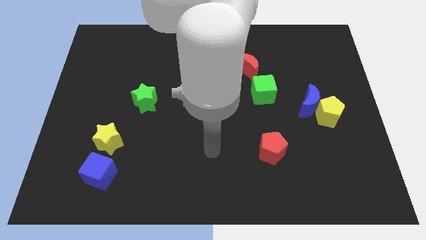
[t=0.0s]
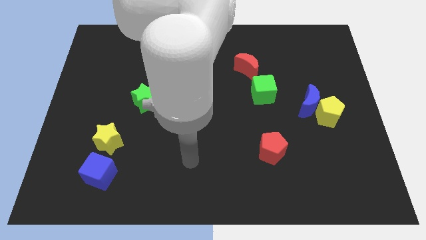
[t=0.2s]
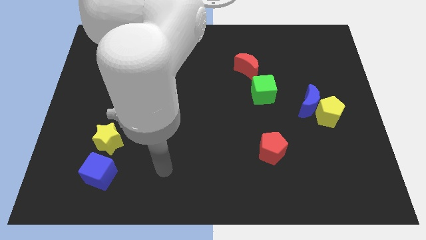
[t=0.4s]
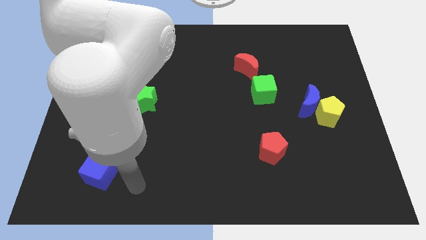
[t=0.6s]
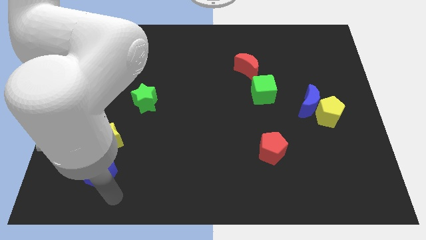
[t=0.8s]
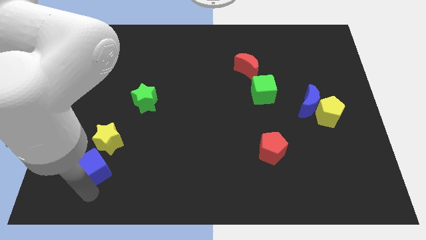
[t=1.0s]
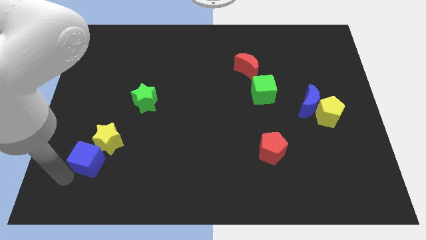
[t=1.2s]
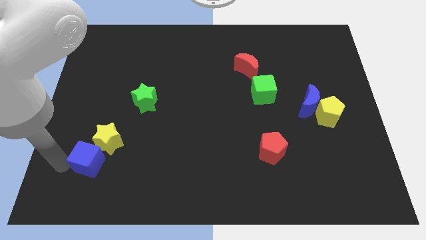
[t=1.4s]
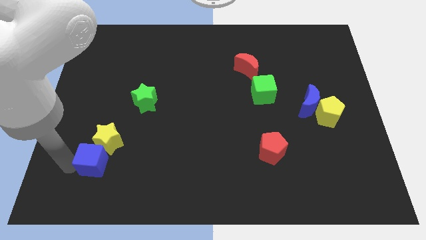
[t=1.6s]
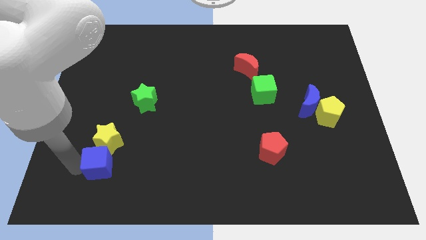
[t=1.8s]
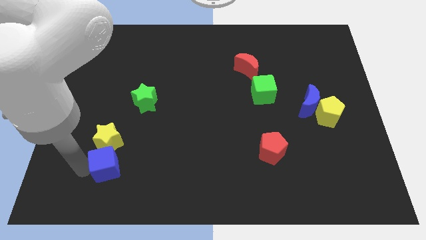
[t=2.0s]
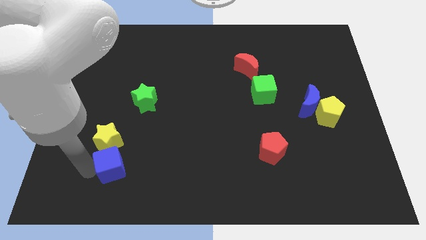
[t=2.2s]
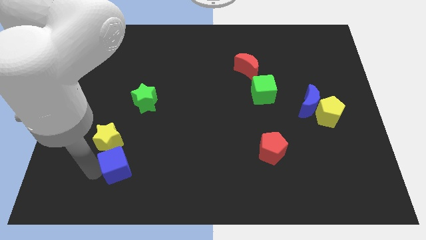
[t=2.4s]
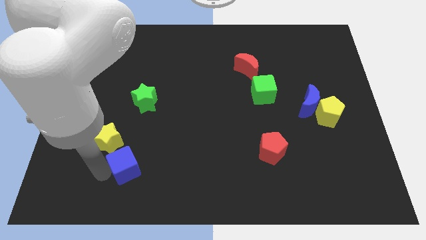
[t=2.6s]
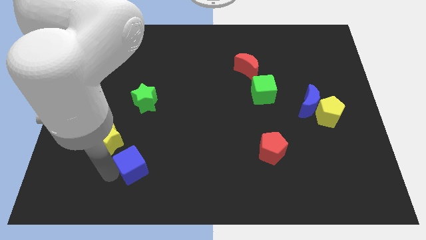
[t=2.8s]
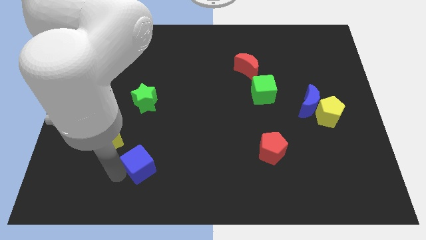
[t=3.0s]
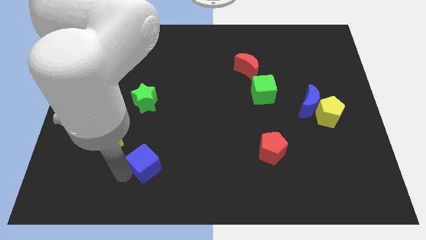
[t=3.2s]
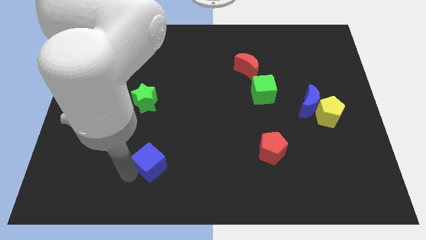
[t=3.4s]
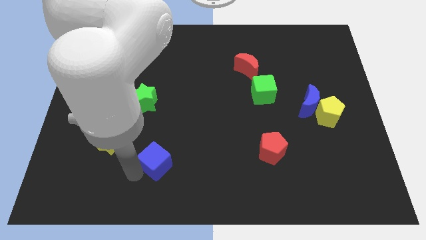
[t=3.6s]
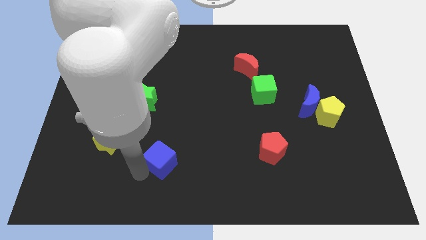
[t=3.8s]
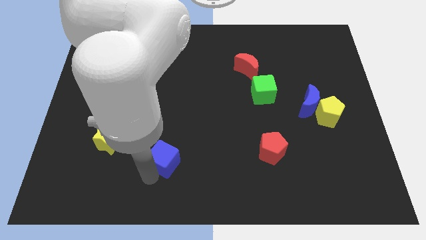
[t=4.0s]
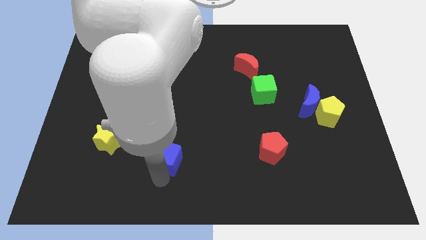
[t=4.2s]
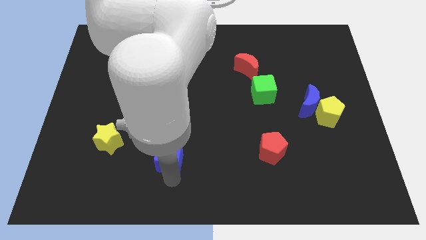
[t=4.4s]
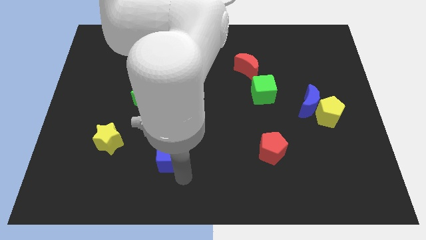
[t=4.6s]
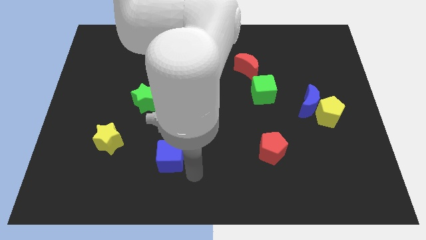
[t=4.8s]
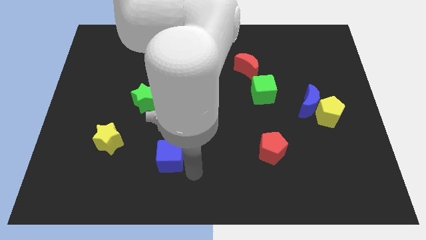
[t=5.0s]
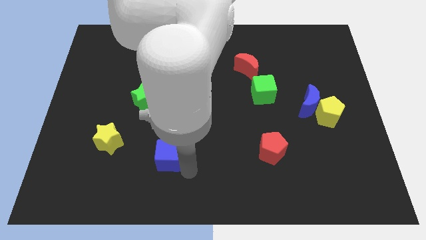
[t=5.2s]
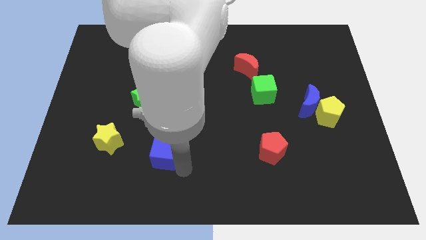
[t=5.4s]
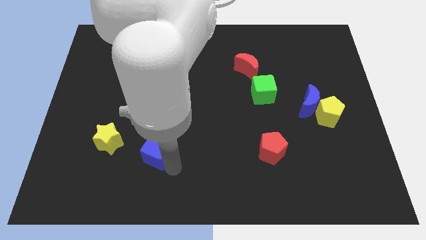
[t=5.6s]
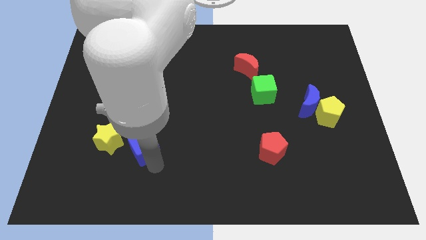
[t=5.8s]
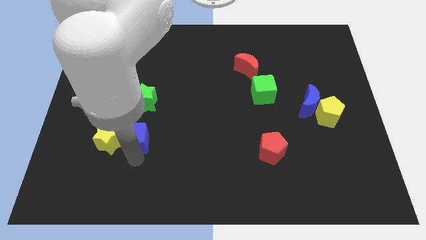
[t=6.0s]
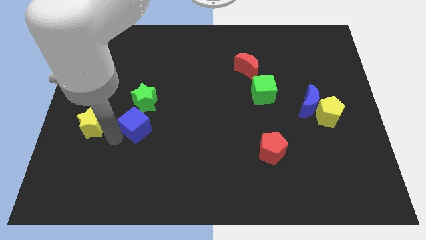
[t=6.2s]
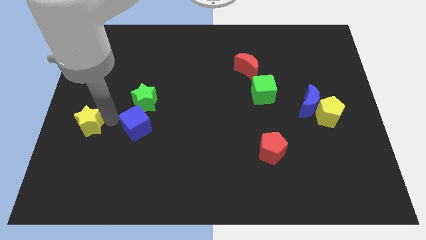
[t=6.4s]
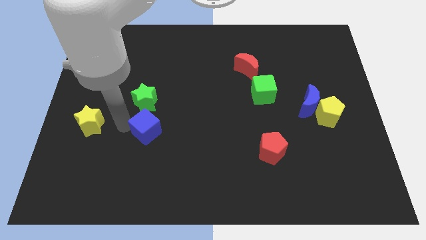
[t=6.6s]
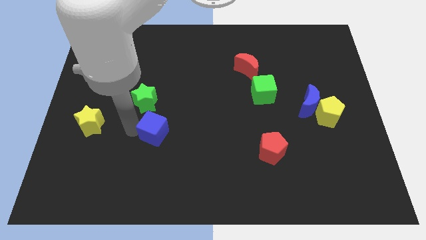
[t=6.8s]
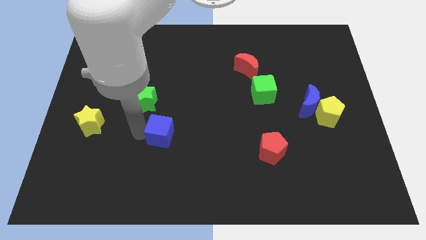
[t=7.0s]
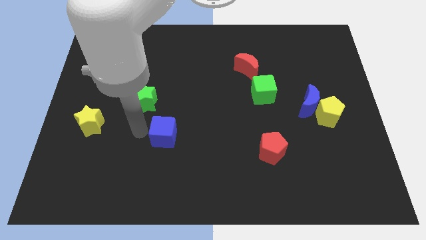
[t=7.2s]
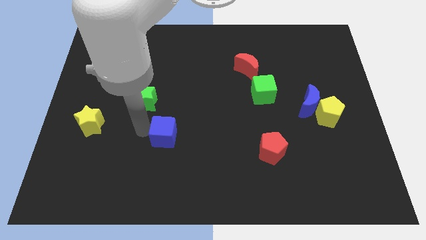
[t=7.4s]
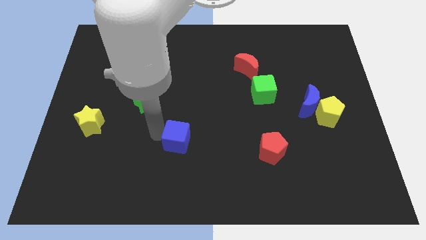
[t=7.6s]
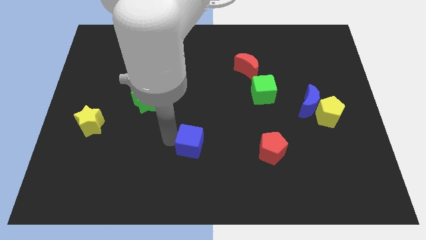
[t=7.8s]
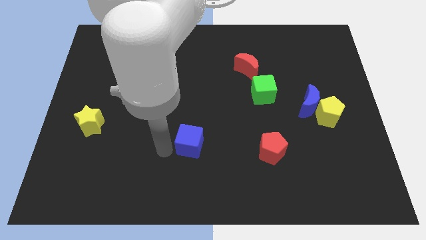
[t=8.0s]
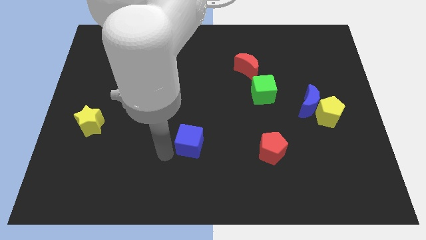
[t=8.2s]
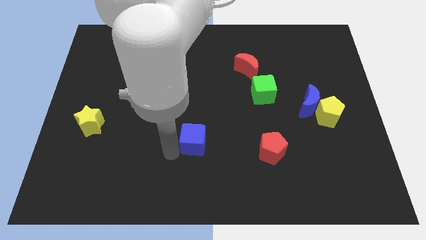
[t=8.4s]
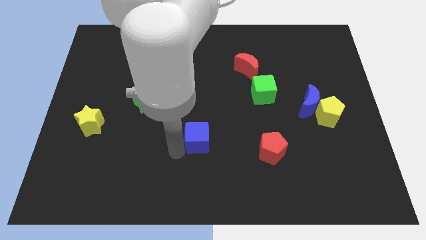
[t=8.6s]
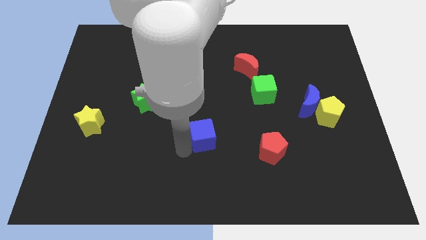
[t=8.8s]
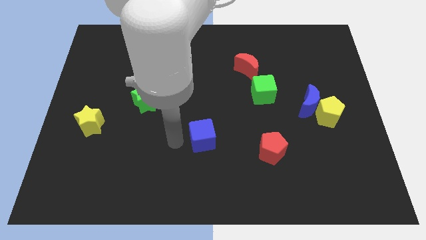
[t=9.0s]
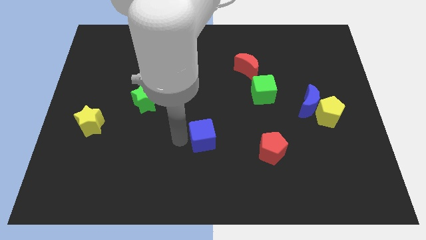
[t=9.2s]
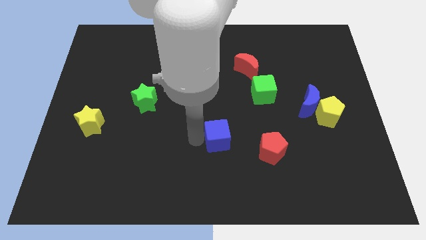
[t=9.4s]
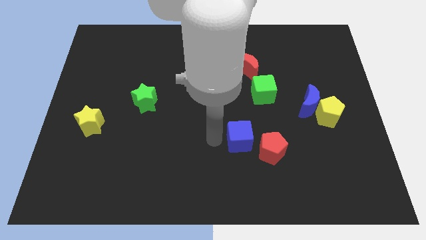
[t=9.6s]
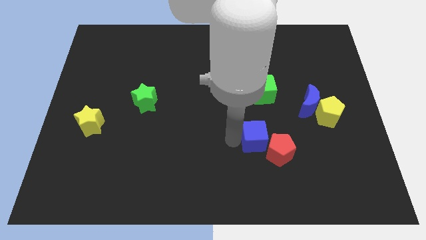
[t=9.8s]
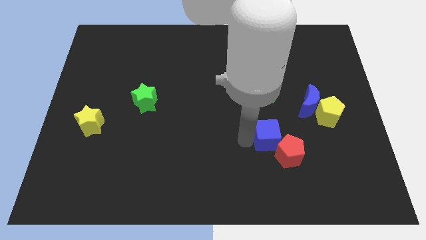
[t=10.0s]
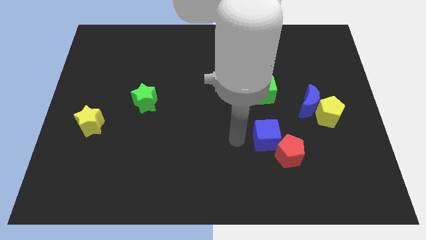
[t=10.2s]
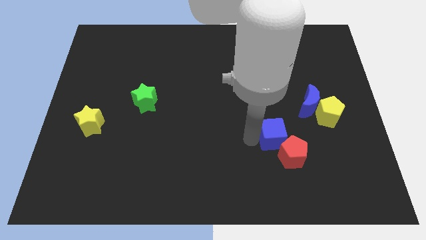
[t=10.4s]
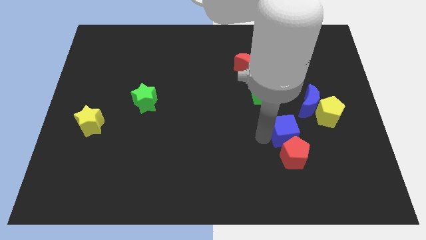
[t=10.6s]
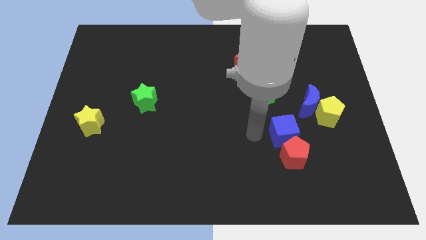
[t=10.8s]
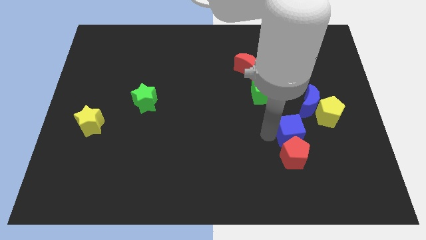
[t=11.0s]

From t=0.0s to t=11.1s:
move the blue cube to the bottom left of the yellow pentagon

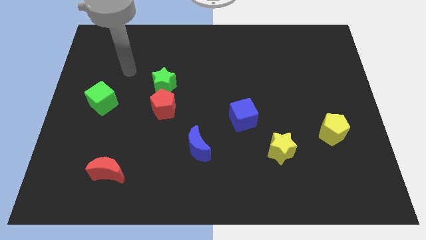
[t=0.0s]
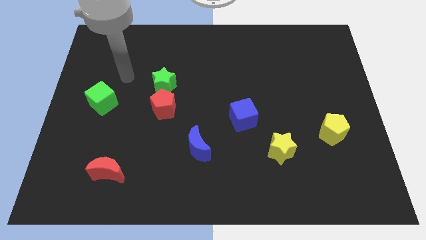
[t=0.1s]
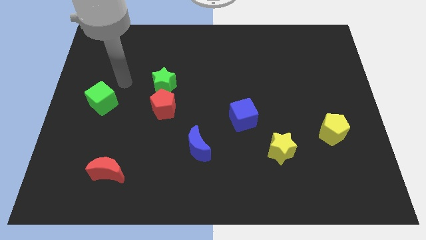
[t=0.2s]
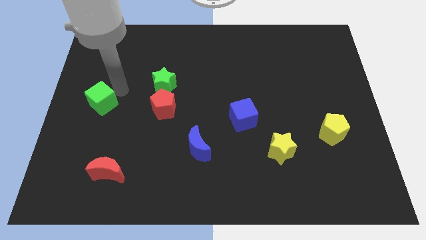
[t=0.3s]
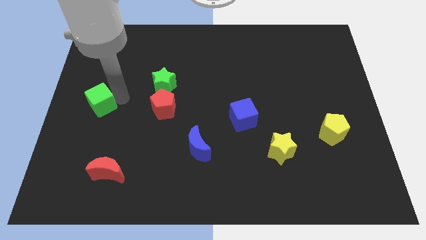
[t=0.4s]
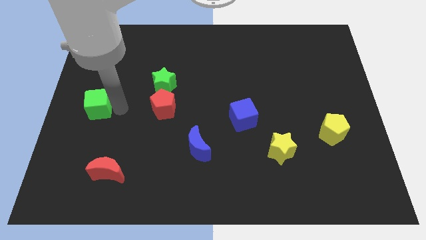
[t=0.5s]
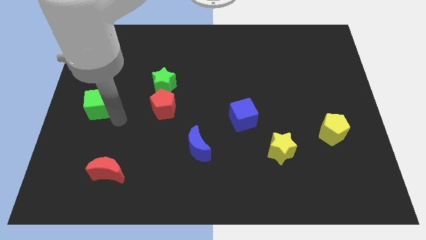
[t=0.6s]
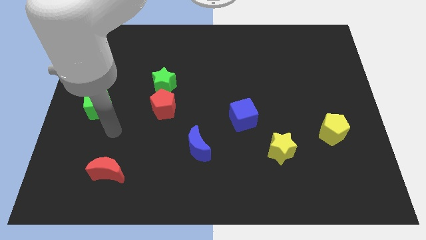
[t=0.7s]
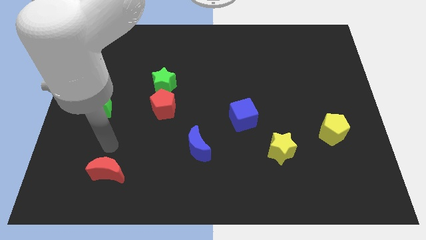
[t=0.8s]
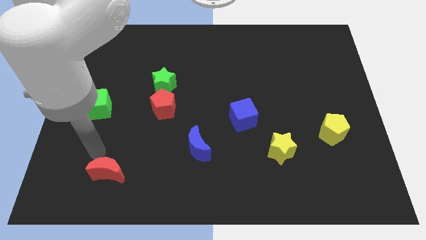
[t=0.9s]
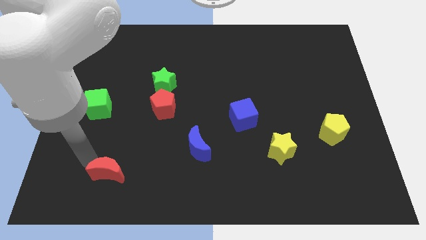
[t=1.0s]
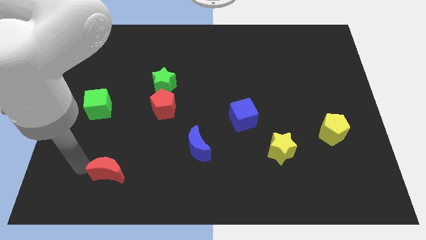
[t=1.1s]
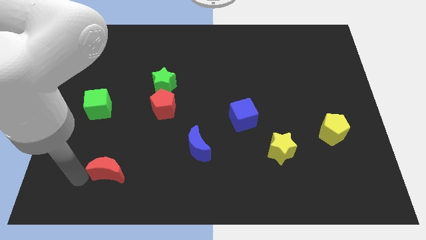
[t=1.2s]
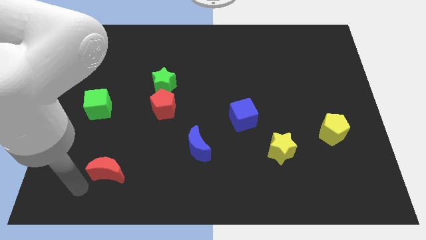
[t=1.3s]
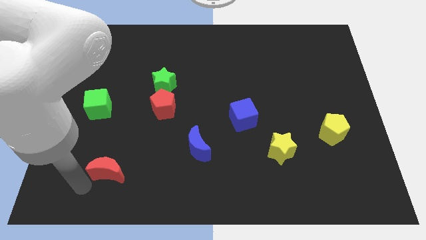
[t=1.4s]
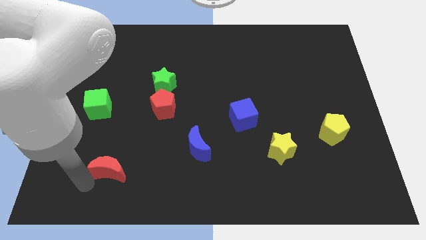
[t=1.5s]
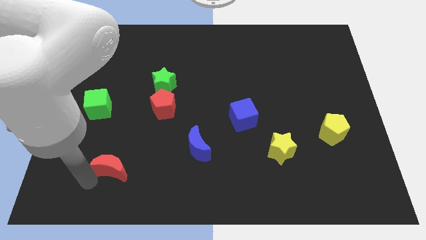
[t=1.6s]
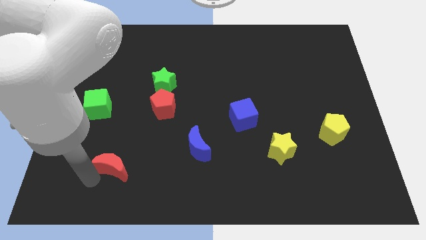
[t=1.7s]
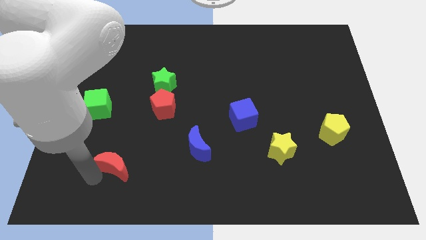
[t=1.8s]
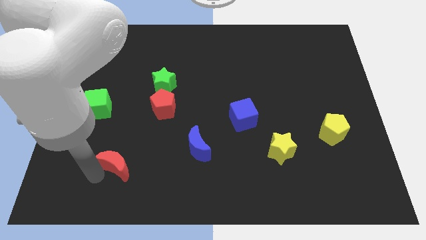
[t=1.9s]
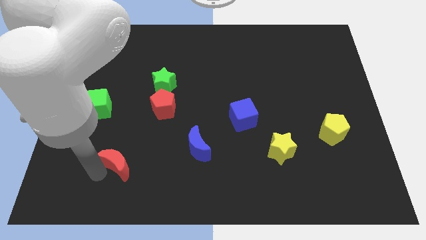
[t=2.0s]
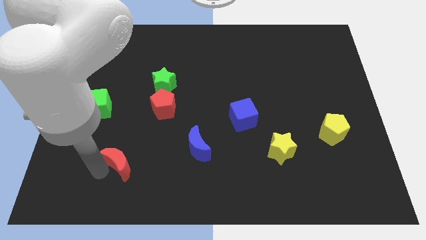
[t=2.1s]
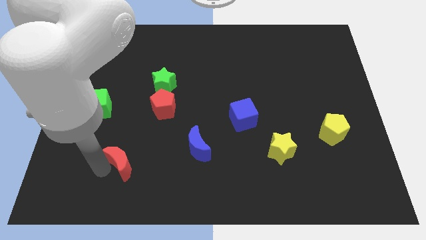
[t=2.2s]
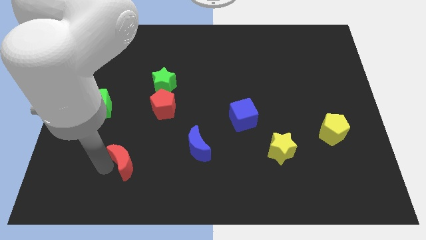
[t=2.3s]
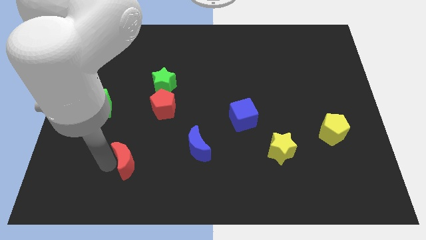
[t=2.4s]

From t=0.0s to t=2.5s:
move the red moon to the left of the blue moon
